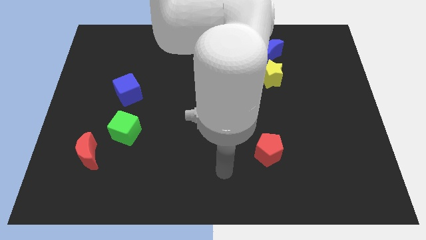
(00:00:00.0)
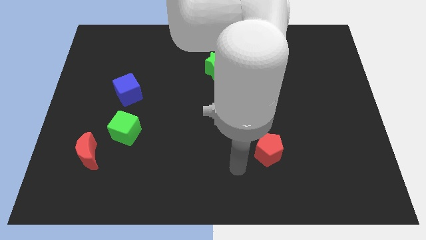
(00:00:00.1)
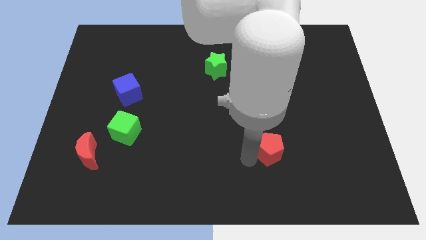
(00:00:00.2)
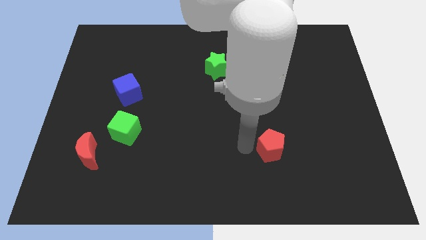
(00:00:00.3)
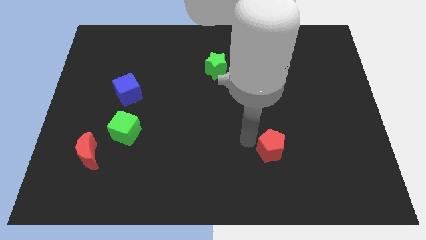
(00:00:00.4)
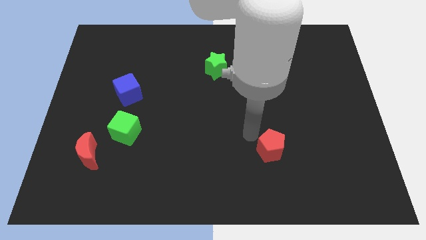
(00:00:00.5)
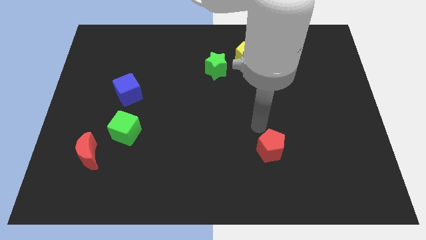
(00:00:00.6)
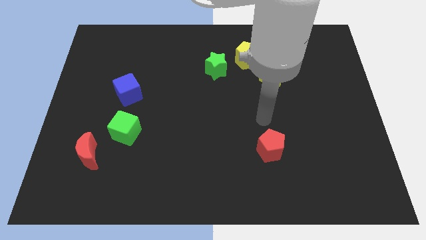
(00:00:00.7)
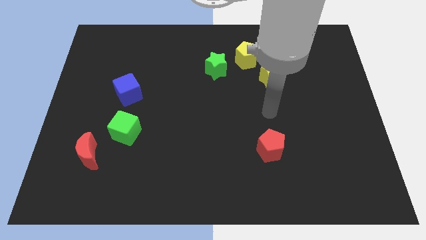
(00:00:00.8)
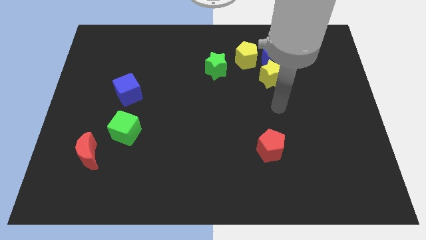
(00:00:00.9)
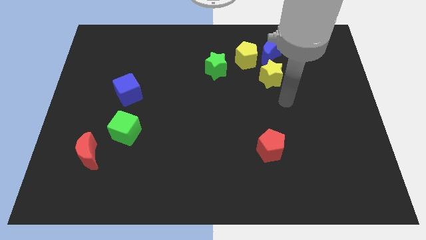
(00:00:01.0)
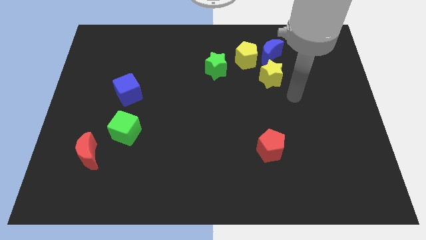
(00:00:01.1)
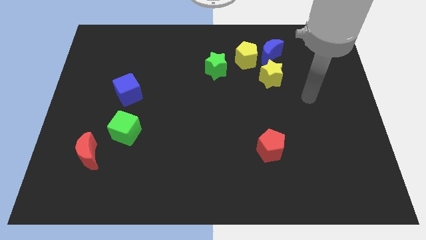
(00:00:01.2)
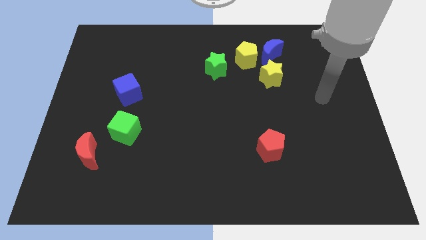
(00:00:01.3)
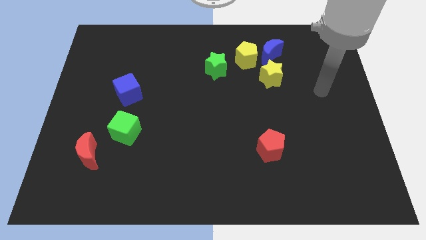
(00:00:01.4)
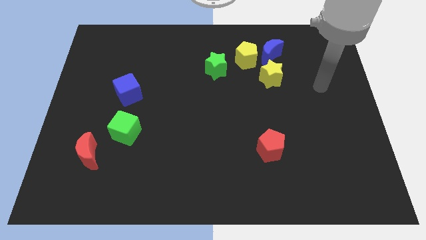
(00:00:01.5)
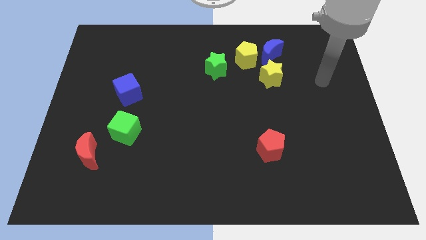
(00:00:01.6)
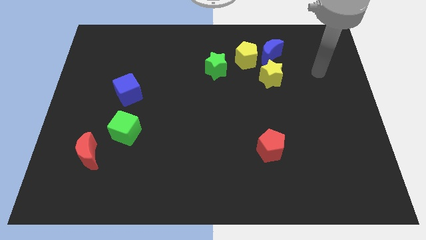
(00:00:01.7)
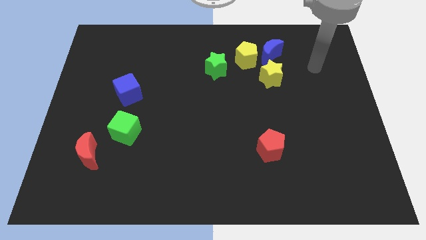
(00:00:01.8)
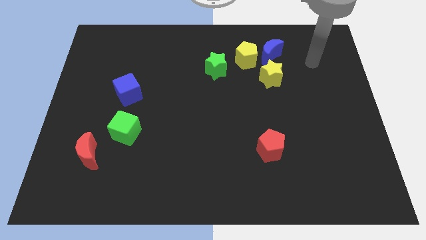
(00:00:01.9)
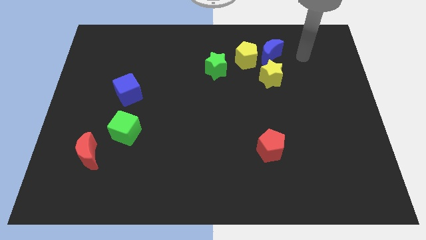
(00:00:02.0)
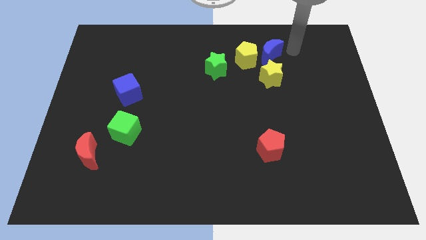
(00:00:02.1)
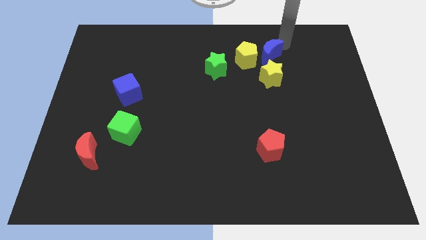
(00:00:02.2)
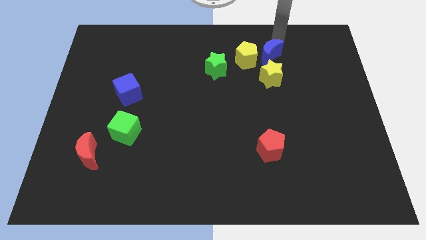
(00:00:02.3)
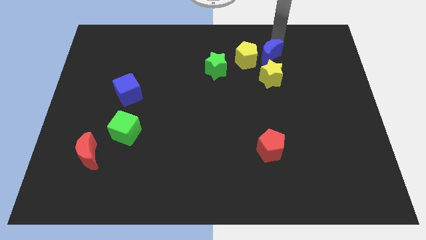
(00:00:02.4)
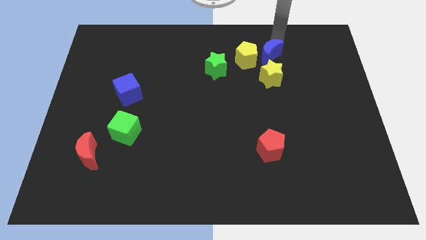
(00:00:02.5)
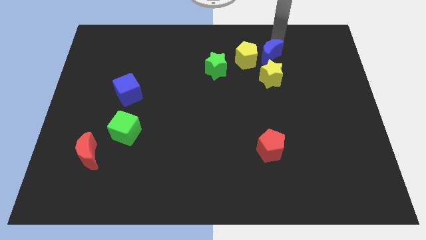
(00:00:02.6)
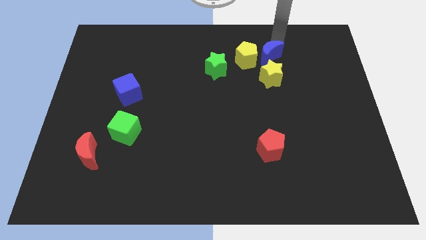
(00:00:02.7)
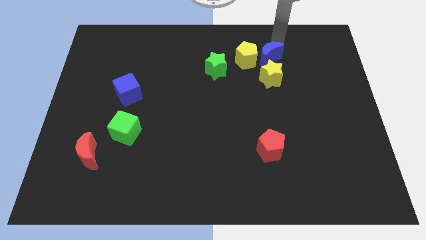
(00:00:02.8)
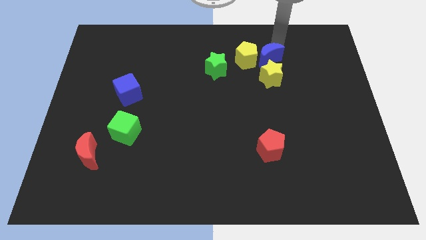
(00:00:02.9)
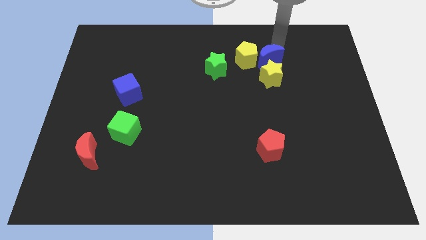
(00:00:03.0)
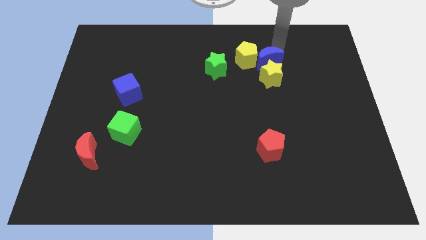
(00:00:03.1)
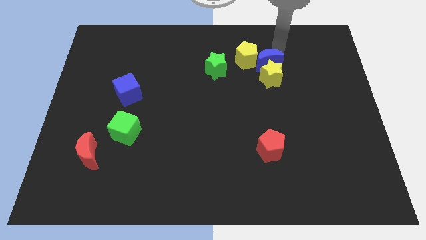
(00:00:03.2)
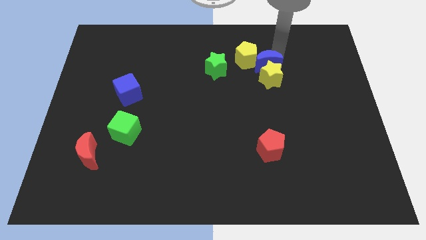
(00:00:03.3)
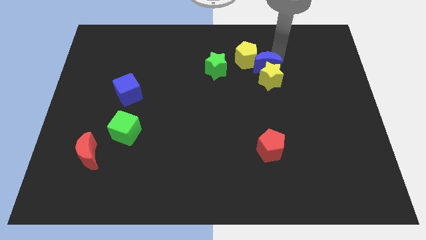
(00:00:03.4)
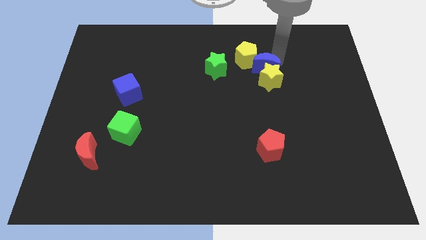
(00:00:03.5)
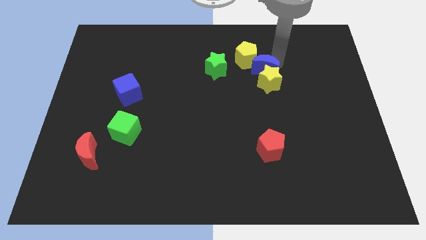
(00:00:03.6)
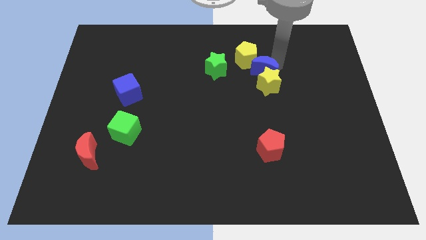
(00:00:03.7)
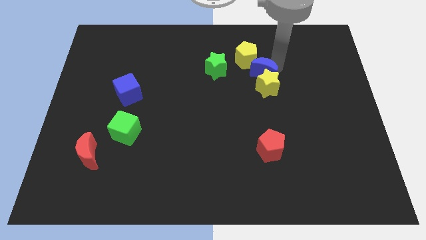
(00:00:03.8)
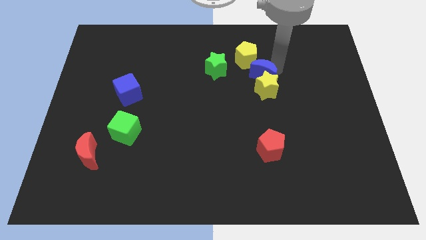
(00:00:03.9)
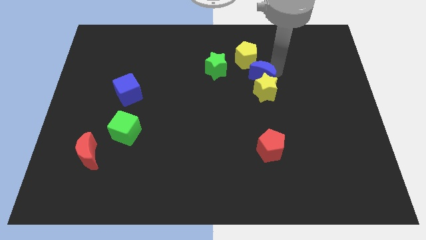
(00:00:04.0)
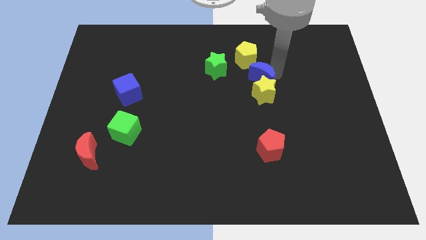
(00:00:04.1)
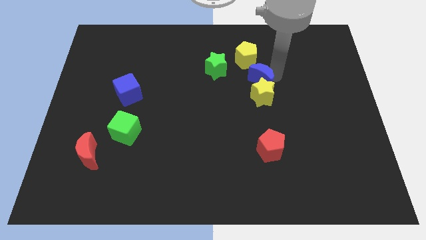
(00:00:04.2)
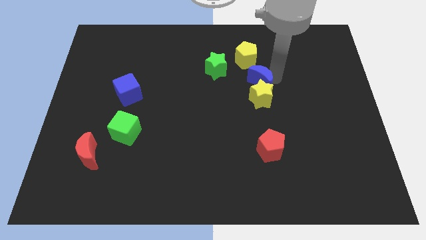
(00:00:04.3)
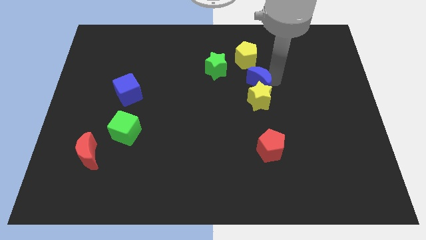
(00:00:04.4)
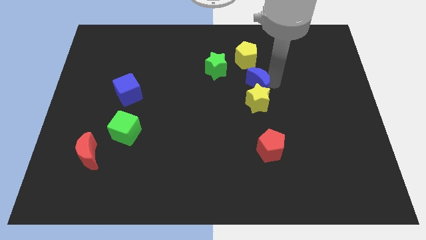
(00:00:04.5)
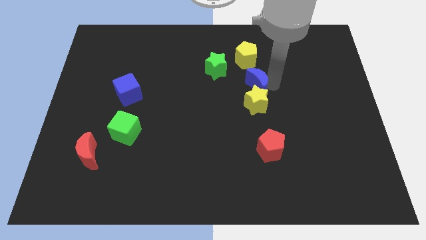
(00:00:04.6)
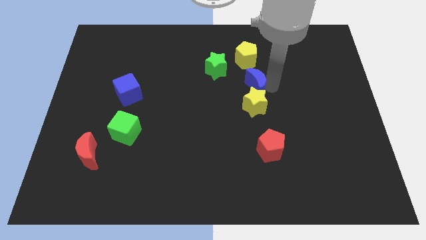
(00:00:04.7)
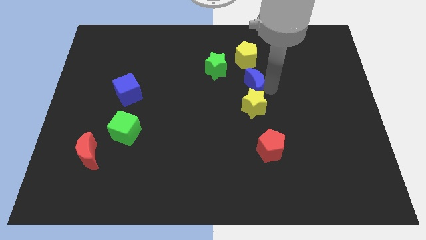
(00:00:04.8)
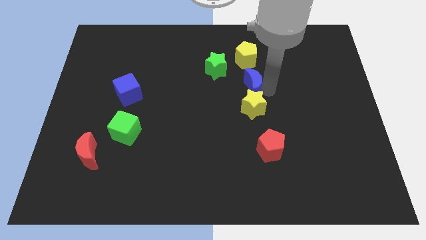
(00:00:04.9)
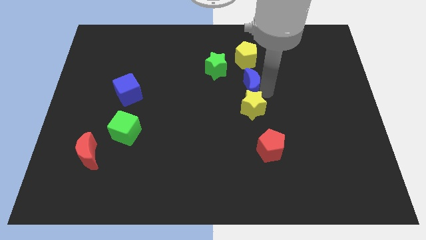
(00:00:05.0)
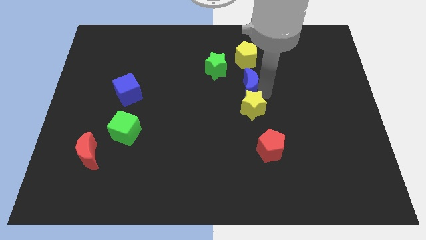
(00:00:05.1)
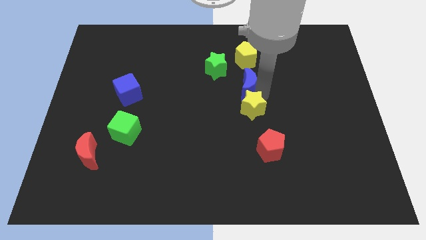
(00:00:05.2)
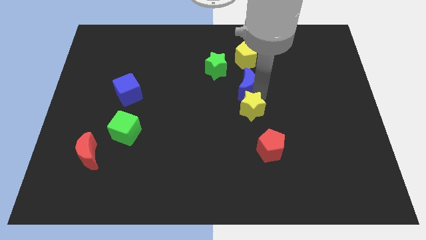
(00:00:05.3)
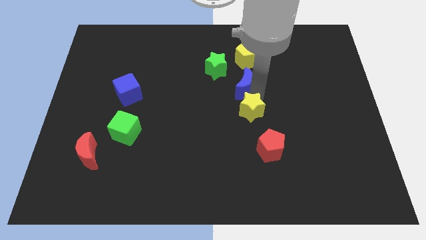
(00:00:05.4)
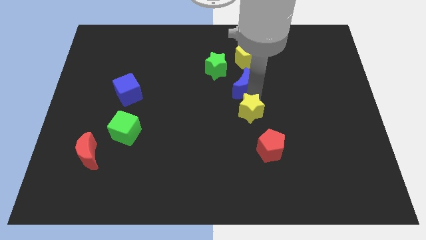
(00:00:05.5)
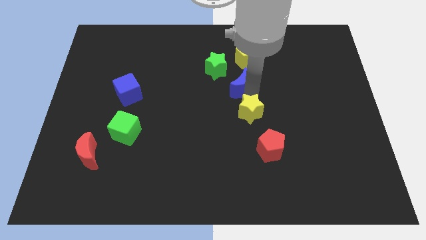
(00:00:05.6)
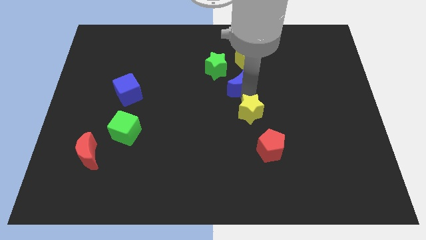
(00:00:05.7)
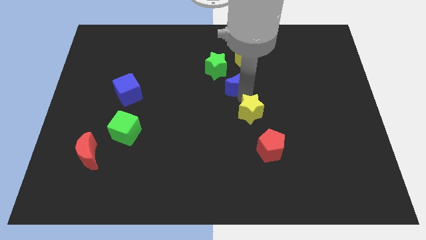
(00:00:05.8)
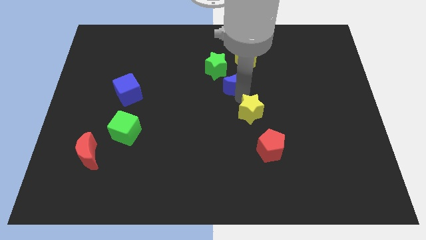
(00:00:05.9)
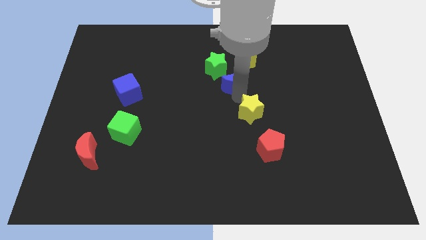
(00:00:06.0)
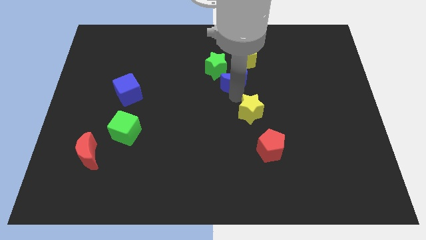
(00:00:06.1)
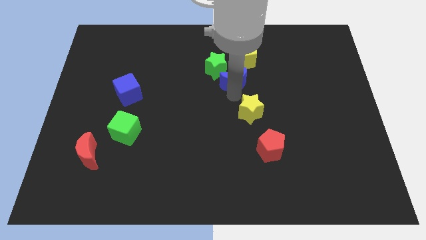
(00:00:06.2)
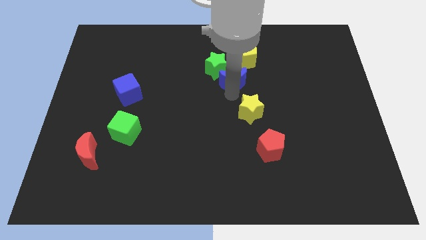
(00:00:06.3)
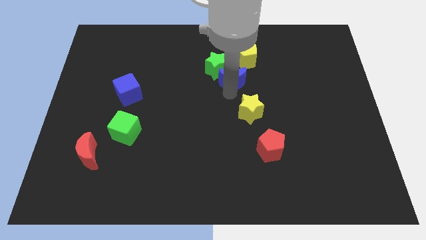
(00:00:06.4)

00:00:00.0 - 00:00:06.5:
push the blue moon next to the green star

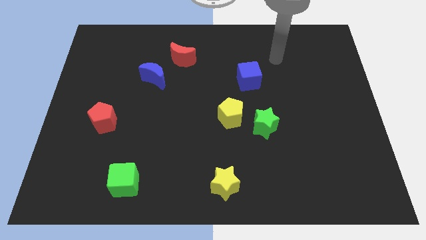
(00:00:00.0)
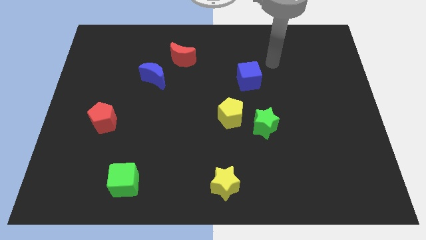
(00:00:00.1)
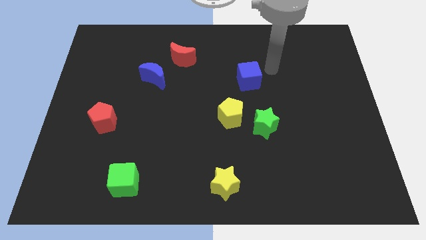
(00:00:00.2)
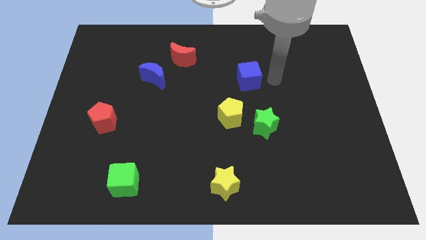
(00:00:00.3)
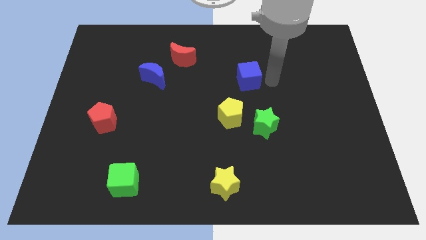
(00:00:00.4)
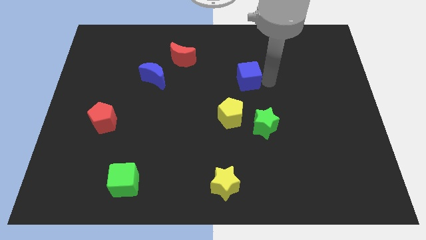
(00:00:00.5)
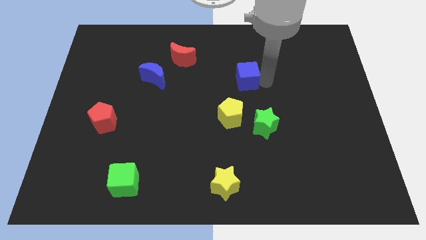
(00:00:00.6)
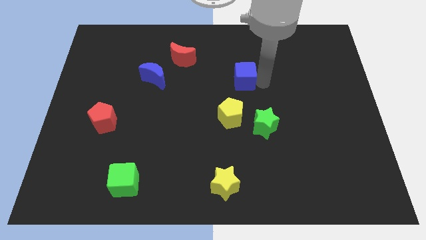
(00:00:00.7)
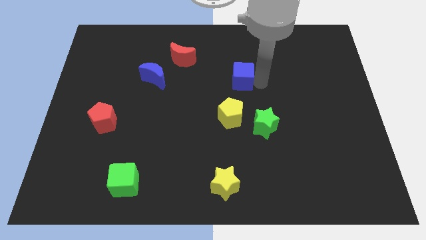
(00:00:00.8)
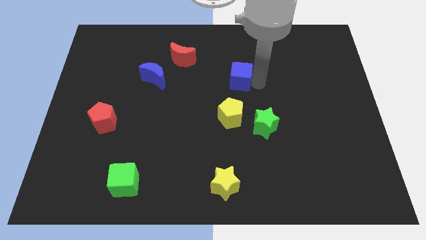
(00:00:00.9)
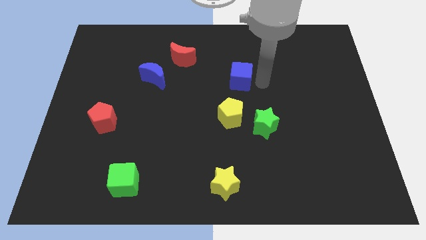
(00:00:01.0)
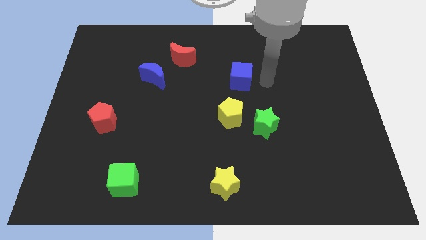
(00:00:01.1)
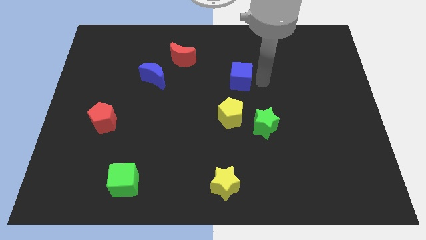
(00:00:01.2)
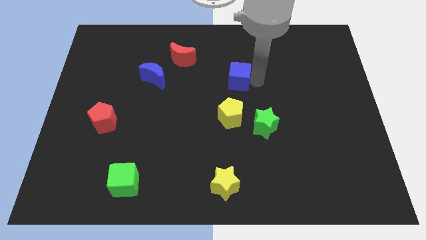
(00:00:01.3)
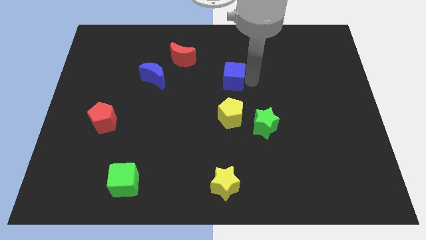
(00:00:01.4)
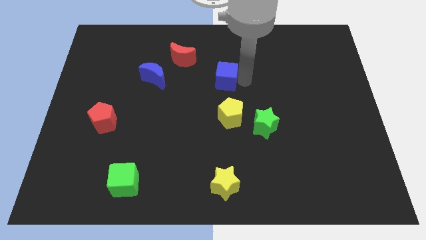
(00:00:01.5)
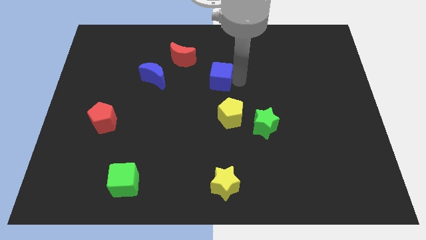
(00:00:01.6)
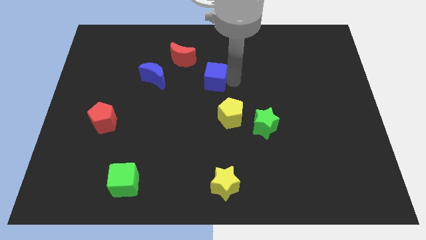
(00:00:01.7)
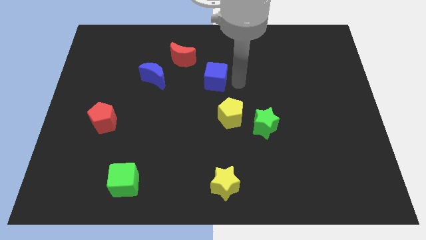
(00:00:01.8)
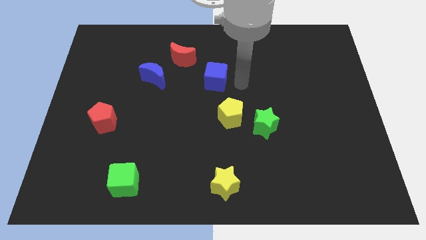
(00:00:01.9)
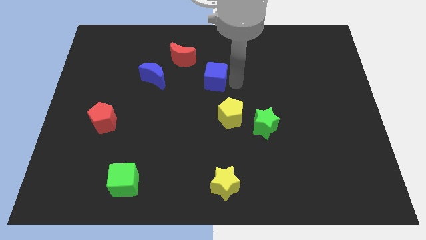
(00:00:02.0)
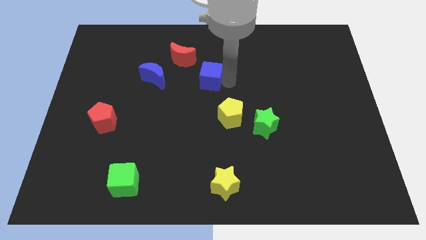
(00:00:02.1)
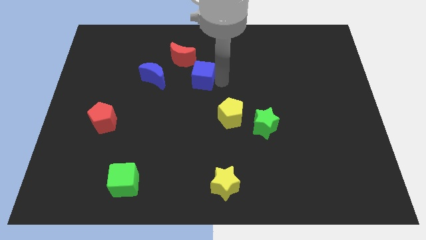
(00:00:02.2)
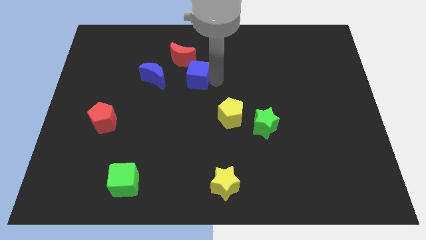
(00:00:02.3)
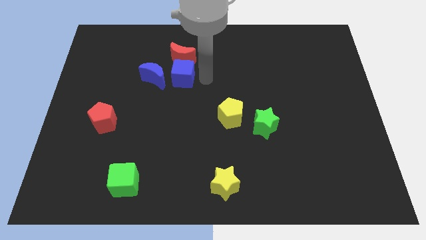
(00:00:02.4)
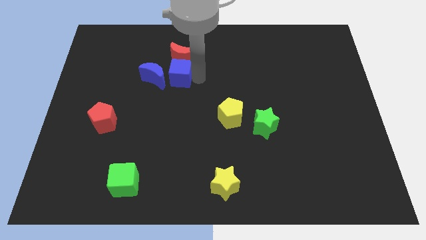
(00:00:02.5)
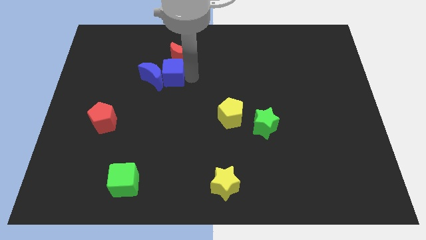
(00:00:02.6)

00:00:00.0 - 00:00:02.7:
put the blue cube next to the blue moon
